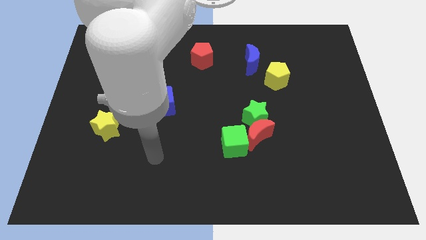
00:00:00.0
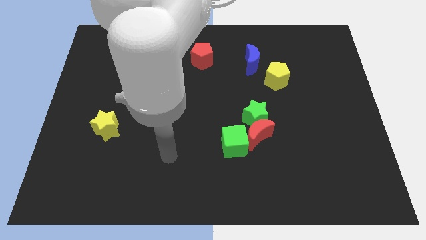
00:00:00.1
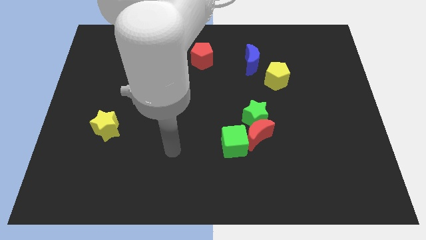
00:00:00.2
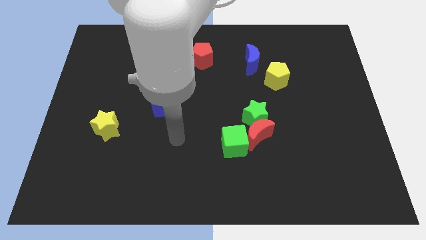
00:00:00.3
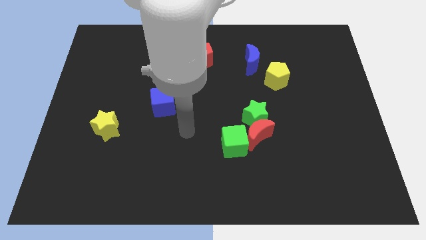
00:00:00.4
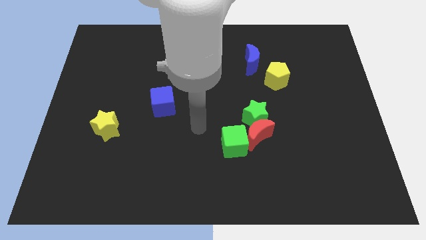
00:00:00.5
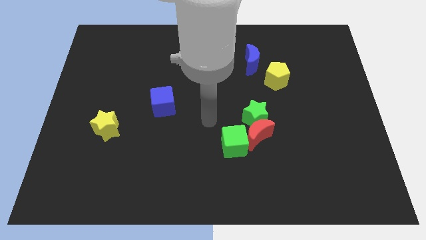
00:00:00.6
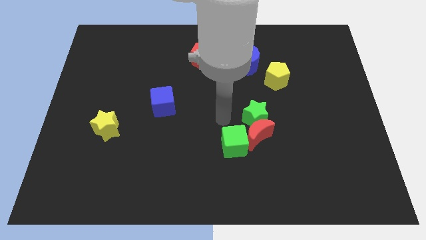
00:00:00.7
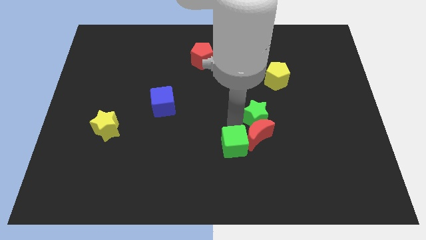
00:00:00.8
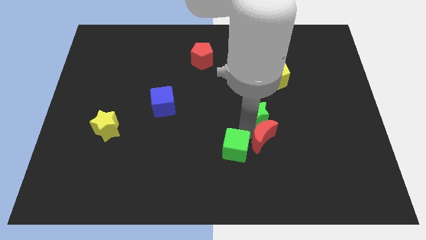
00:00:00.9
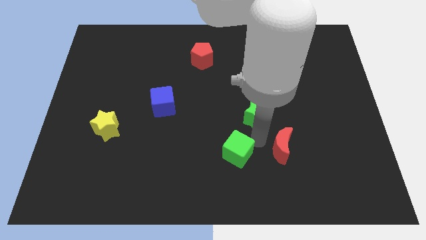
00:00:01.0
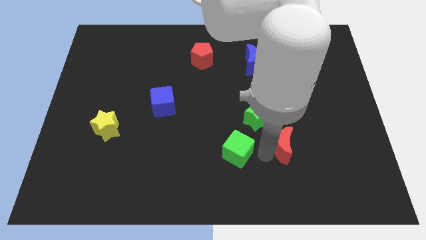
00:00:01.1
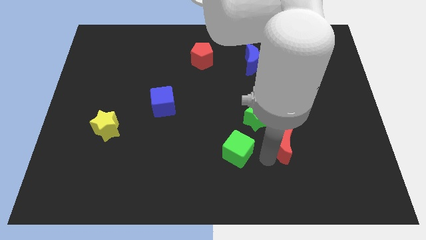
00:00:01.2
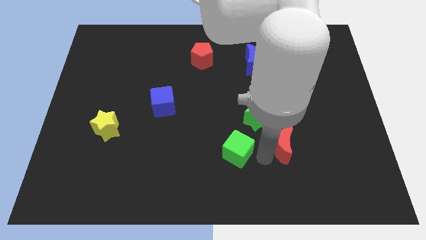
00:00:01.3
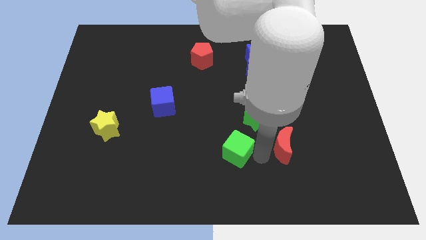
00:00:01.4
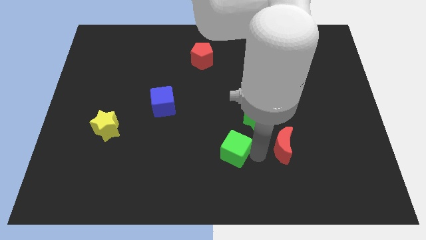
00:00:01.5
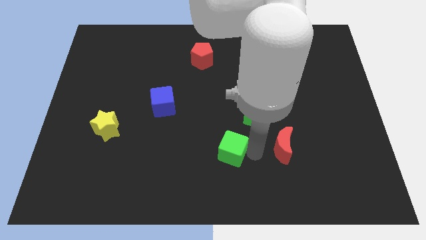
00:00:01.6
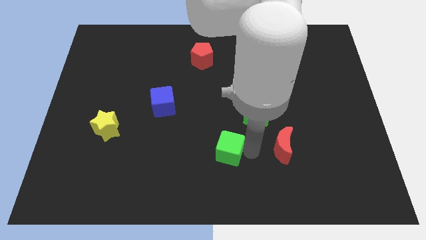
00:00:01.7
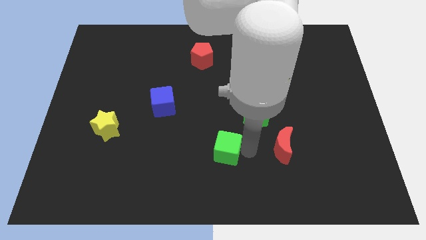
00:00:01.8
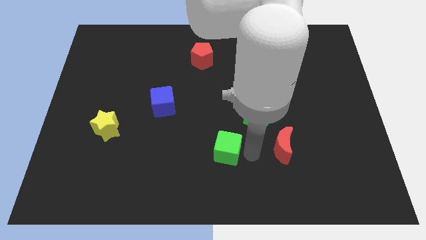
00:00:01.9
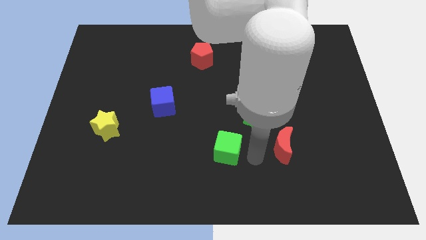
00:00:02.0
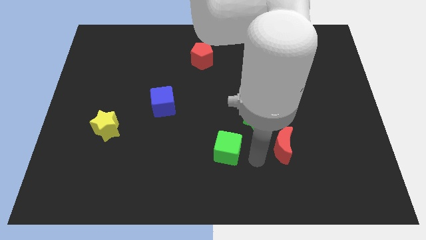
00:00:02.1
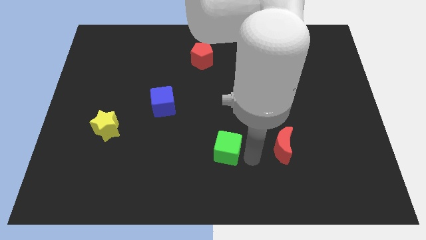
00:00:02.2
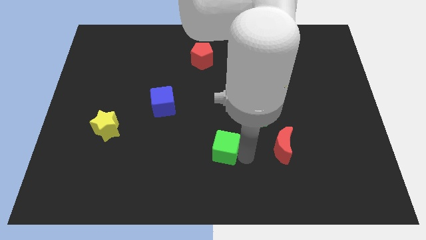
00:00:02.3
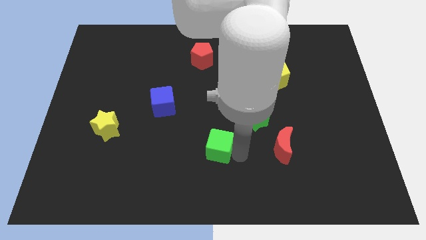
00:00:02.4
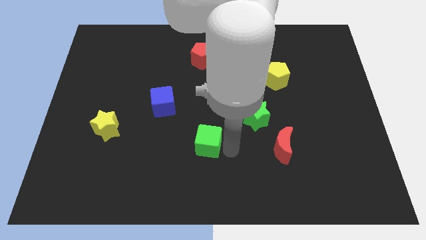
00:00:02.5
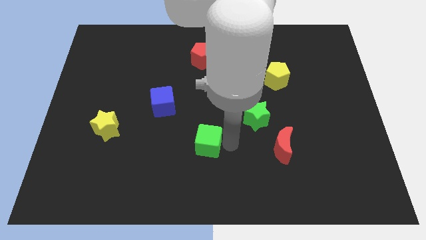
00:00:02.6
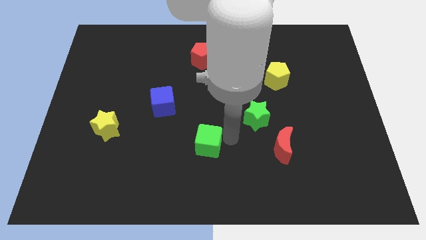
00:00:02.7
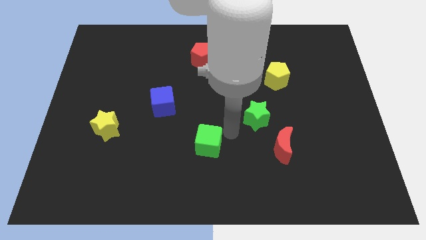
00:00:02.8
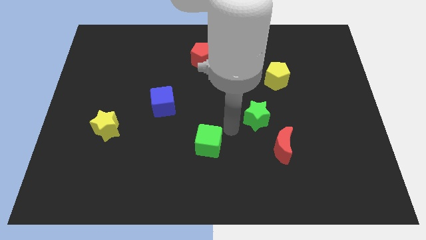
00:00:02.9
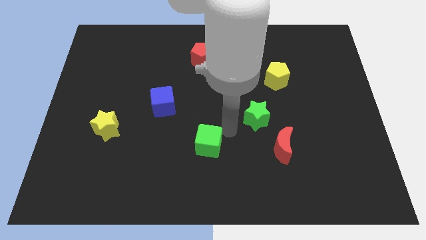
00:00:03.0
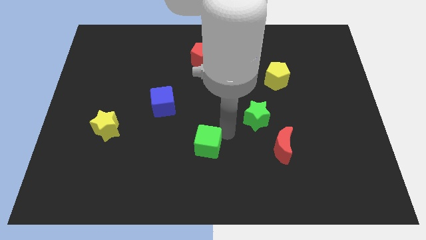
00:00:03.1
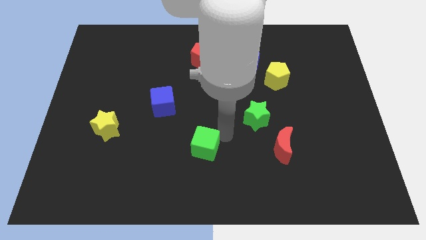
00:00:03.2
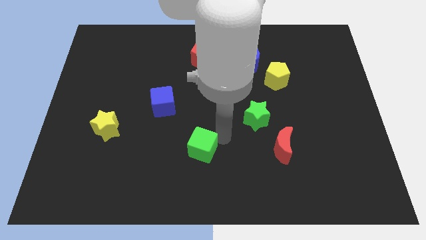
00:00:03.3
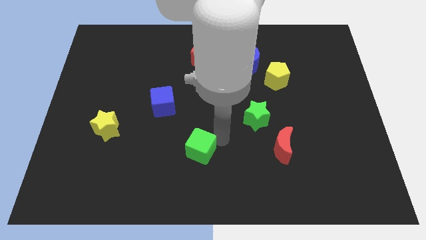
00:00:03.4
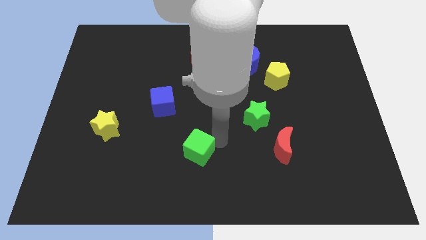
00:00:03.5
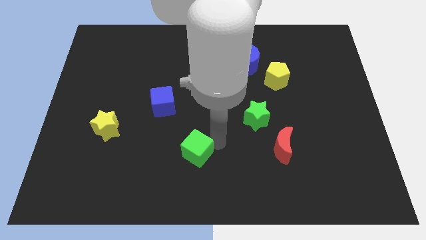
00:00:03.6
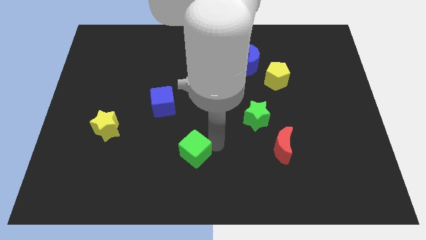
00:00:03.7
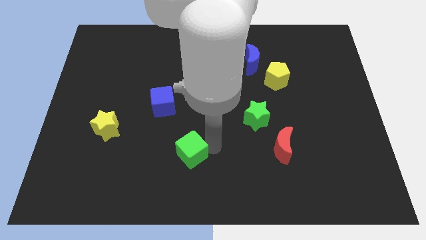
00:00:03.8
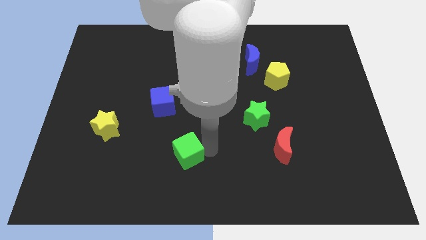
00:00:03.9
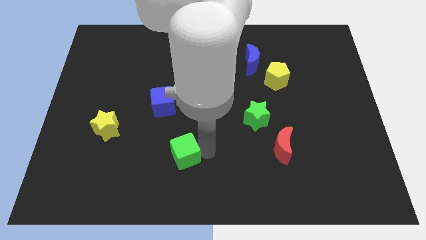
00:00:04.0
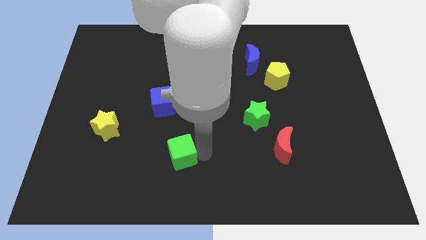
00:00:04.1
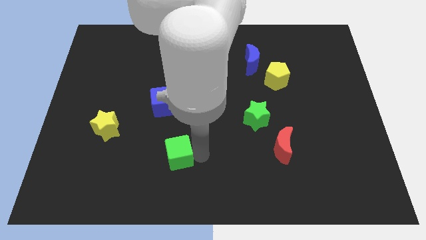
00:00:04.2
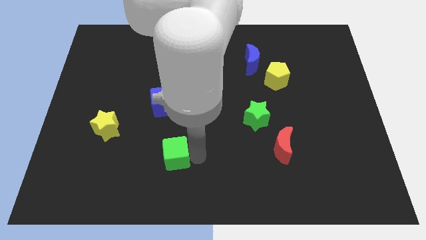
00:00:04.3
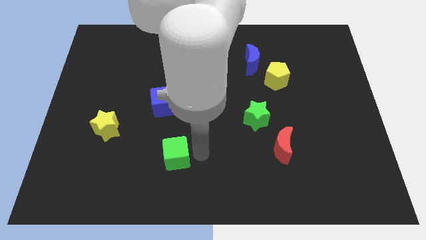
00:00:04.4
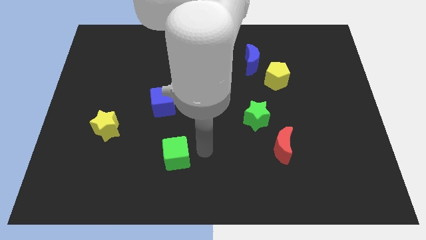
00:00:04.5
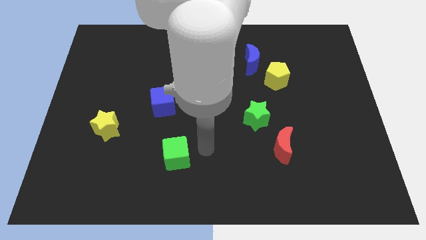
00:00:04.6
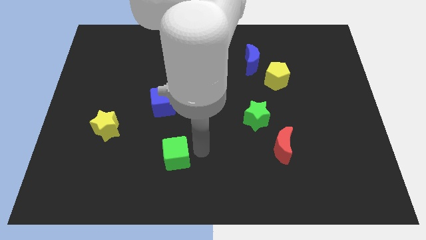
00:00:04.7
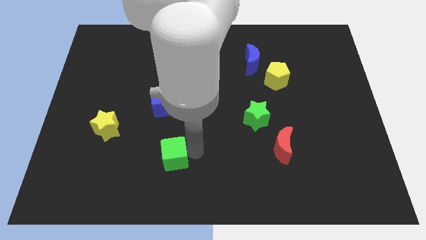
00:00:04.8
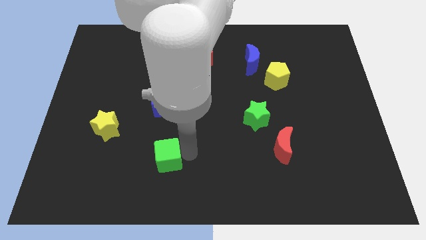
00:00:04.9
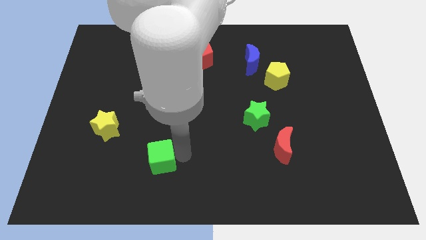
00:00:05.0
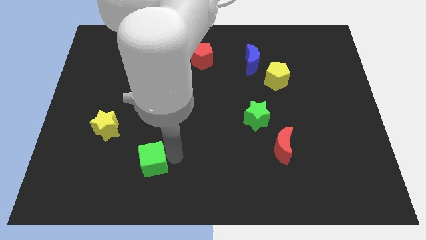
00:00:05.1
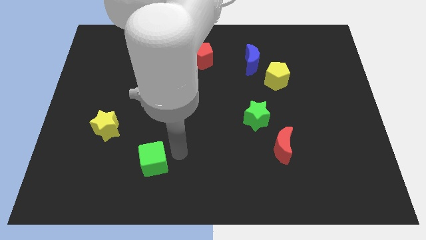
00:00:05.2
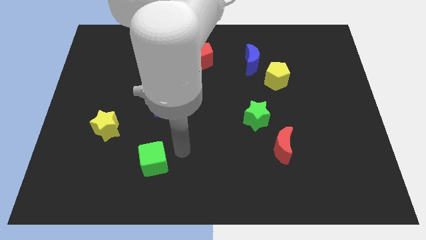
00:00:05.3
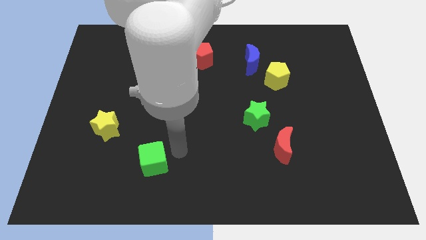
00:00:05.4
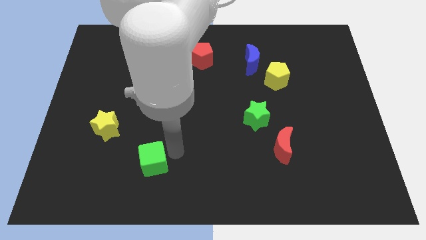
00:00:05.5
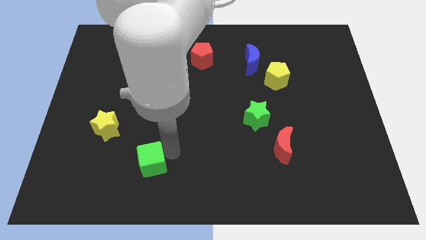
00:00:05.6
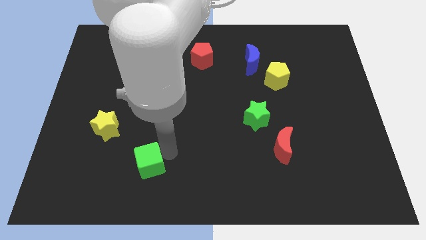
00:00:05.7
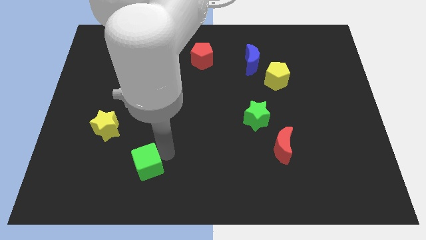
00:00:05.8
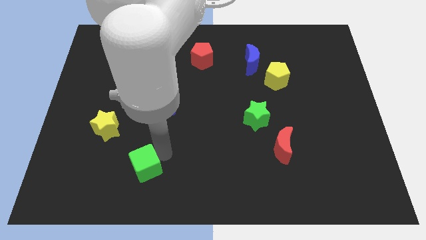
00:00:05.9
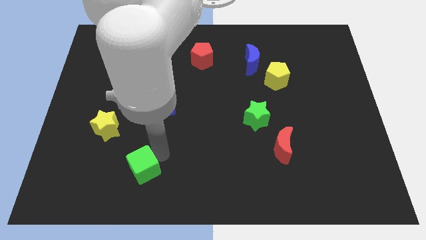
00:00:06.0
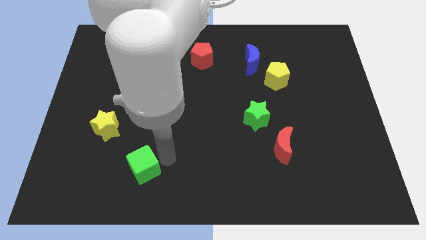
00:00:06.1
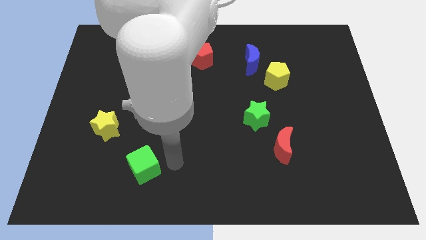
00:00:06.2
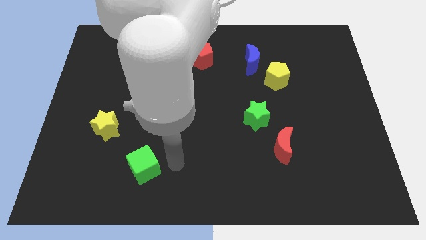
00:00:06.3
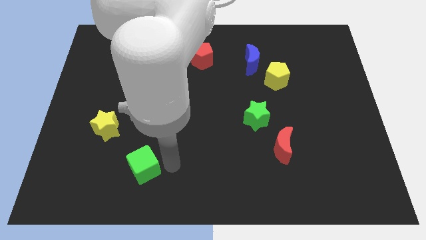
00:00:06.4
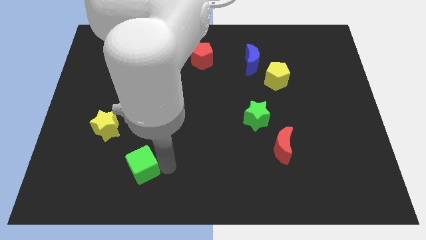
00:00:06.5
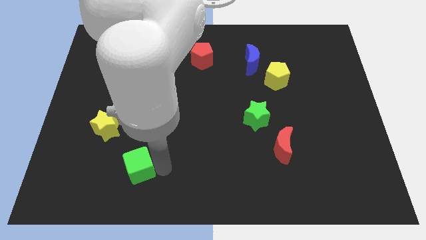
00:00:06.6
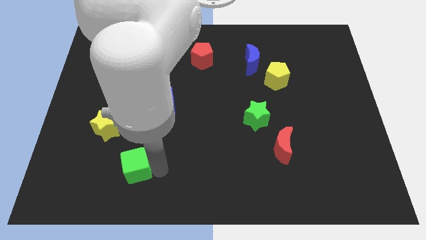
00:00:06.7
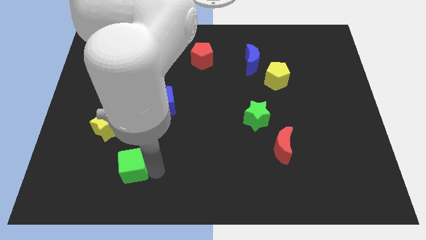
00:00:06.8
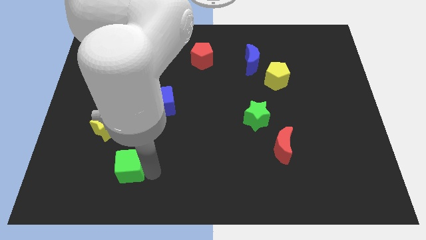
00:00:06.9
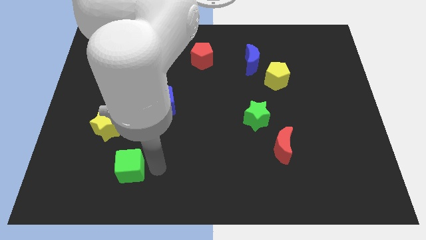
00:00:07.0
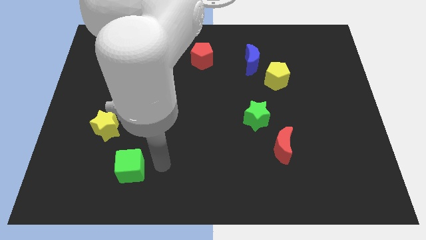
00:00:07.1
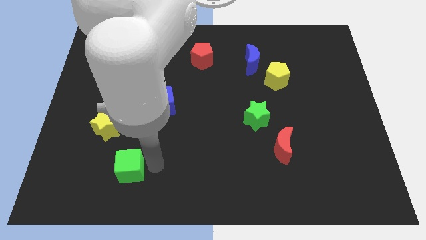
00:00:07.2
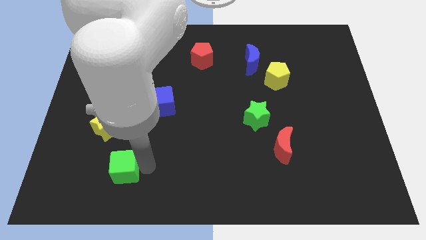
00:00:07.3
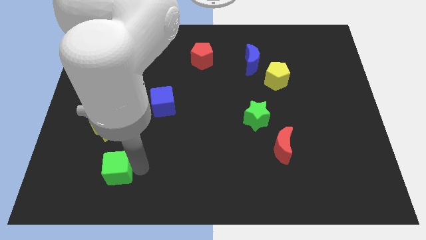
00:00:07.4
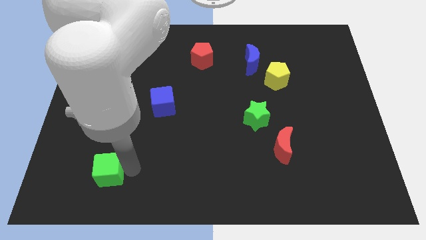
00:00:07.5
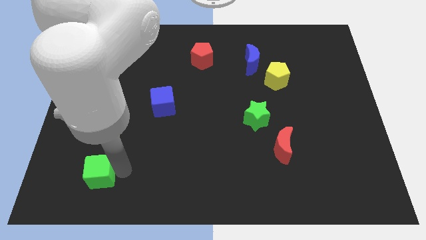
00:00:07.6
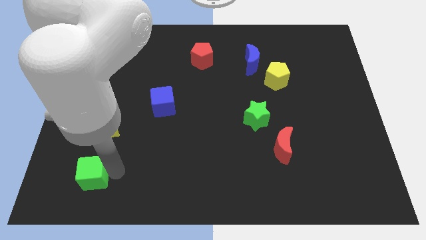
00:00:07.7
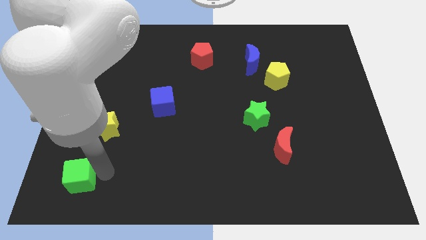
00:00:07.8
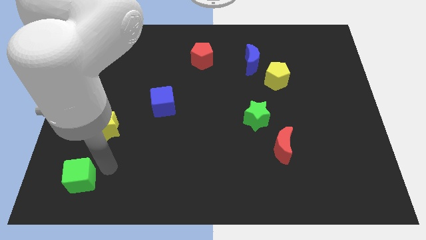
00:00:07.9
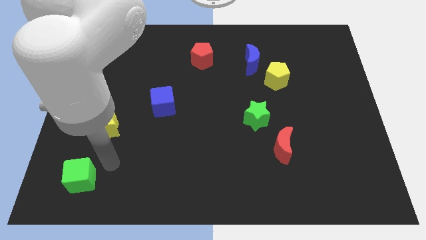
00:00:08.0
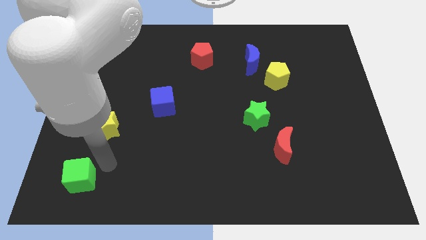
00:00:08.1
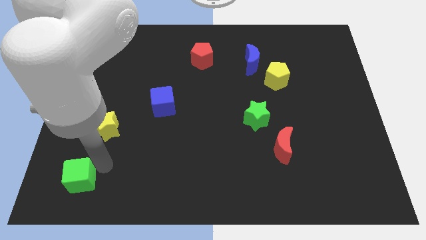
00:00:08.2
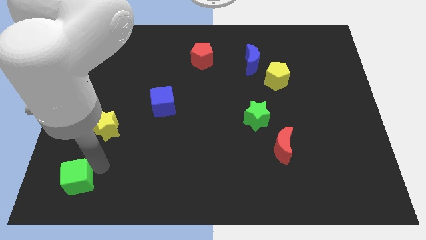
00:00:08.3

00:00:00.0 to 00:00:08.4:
put the green cube to the bottom left
